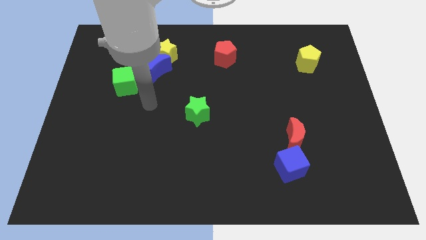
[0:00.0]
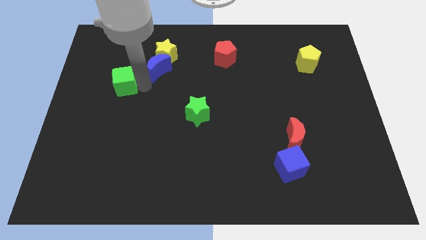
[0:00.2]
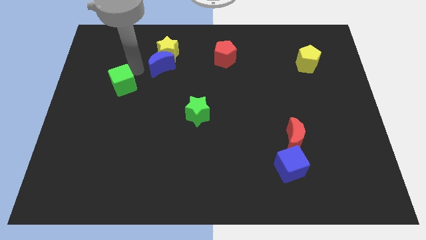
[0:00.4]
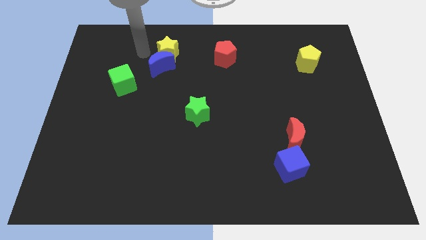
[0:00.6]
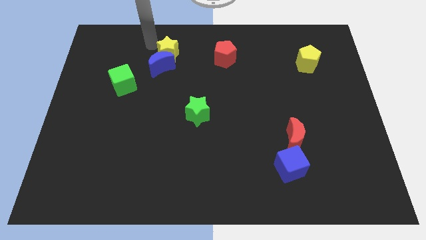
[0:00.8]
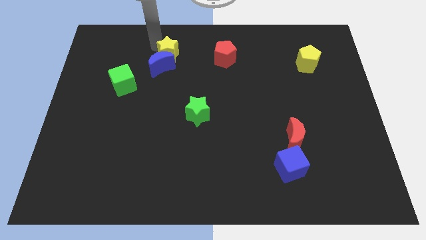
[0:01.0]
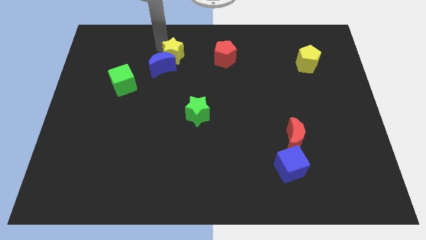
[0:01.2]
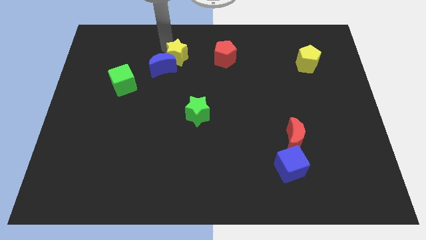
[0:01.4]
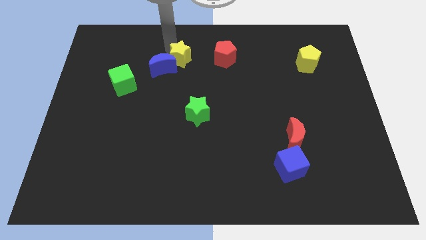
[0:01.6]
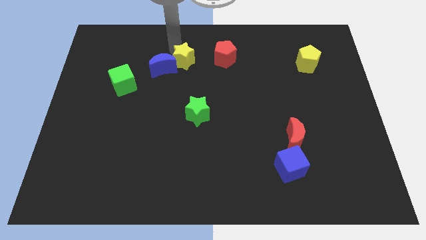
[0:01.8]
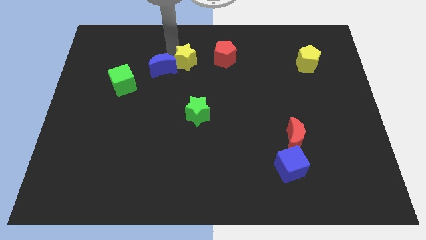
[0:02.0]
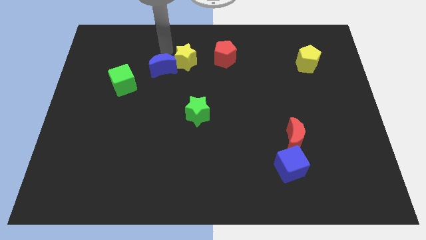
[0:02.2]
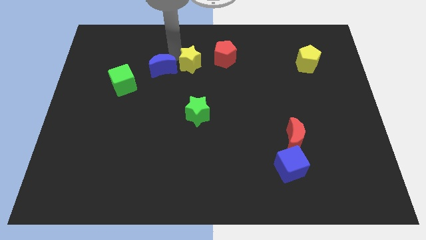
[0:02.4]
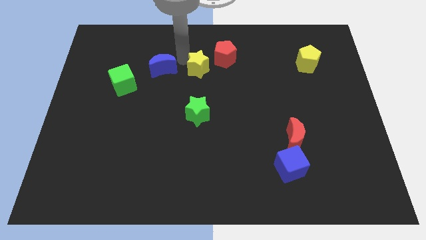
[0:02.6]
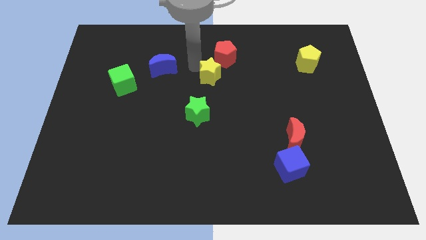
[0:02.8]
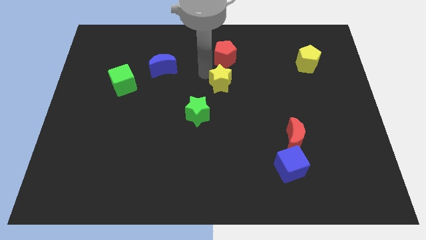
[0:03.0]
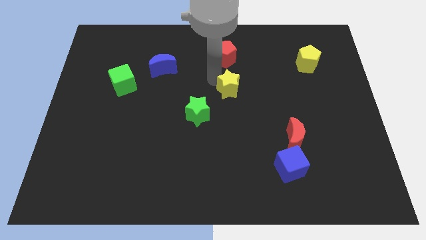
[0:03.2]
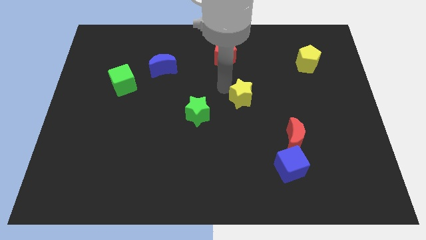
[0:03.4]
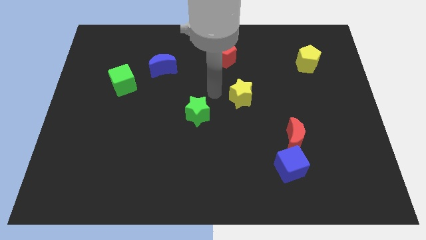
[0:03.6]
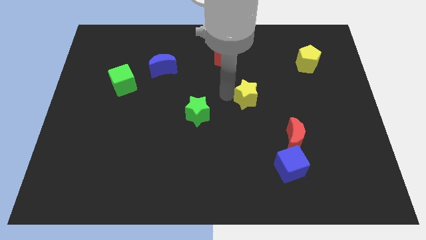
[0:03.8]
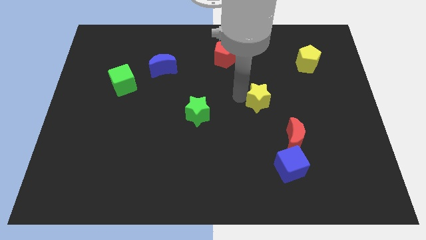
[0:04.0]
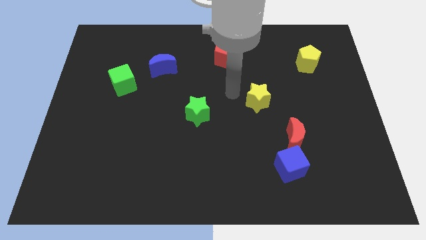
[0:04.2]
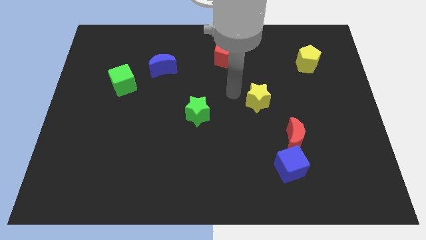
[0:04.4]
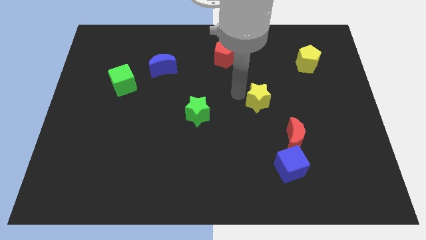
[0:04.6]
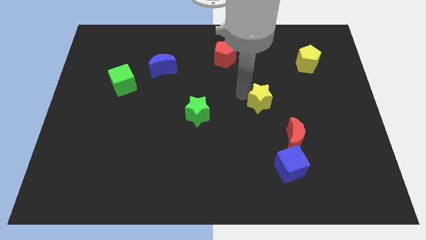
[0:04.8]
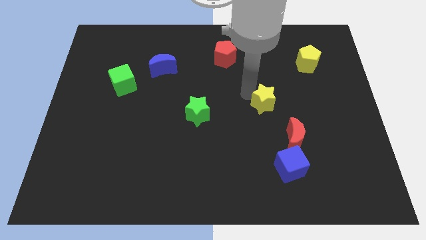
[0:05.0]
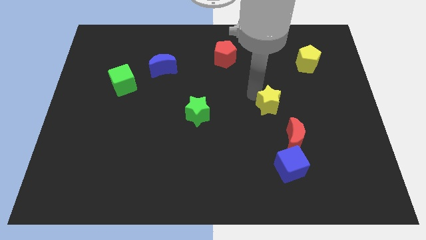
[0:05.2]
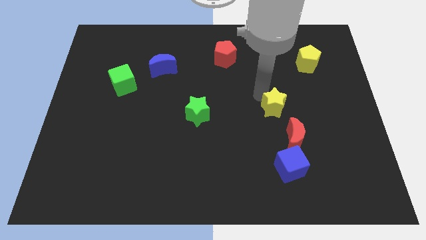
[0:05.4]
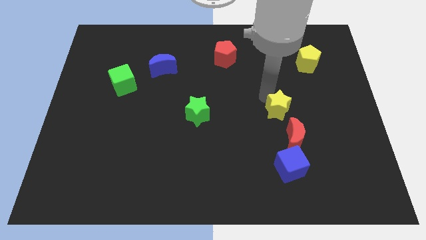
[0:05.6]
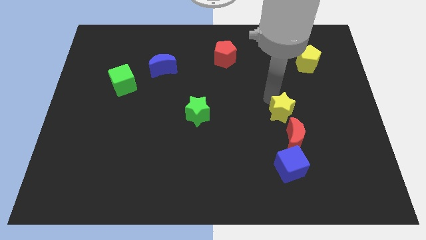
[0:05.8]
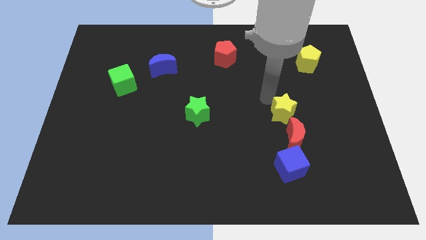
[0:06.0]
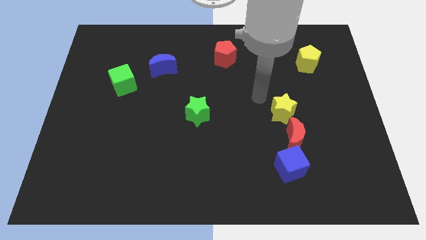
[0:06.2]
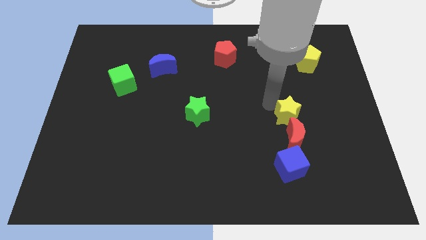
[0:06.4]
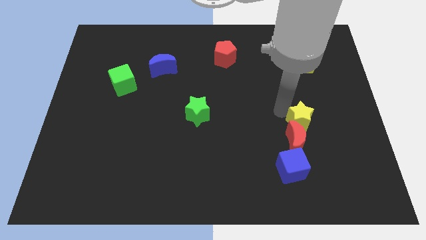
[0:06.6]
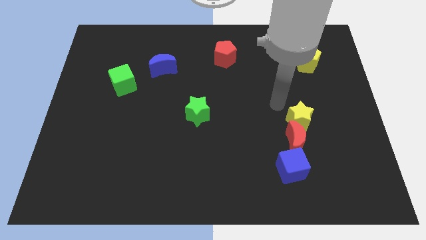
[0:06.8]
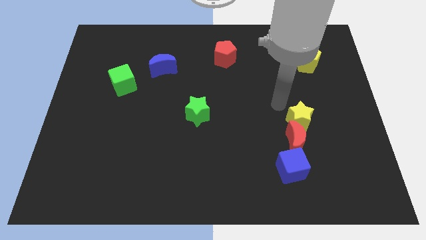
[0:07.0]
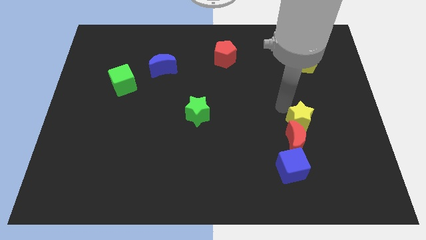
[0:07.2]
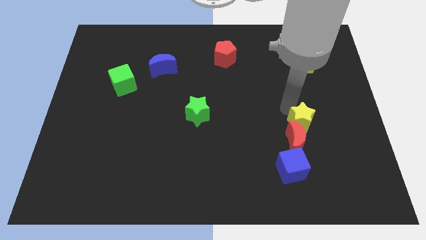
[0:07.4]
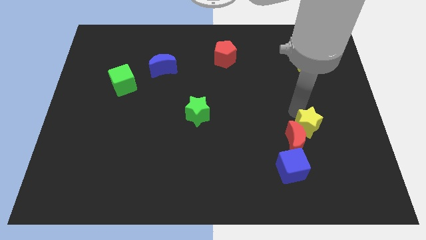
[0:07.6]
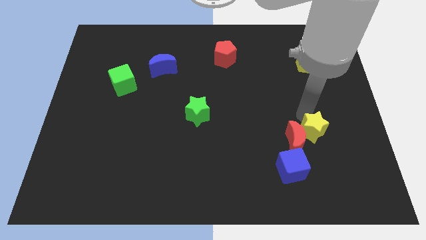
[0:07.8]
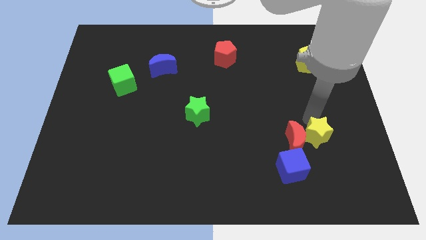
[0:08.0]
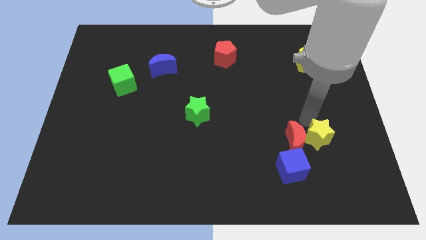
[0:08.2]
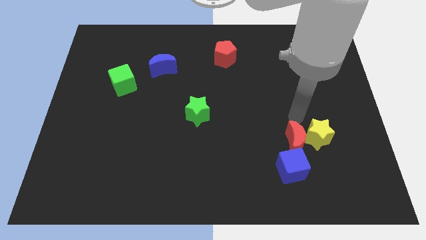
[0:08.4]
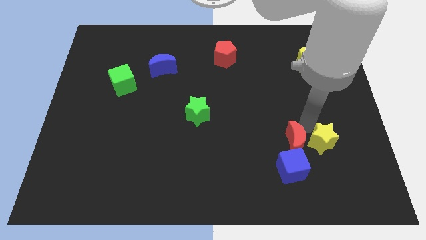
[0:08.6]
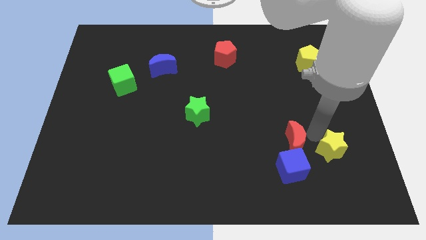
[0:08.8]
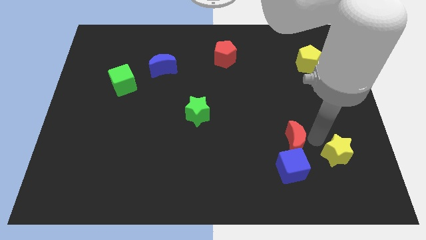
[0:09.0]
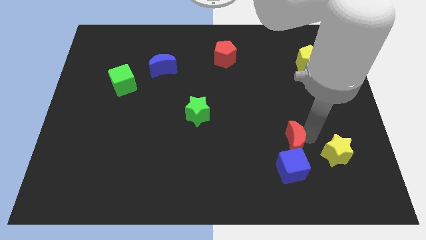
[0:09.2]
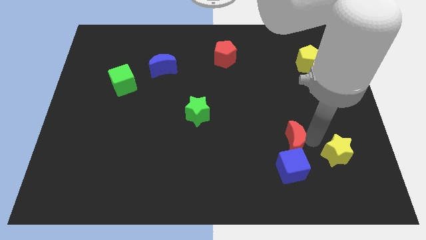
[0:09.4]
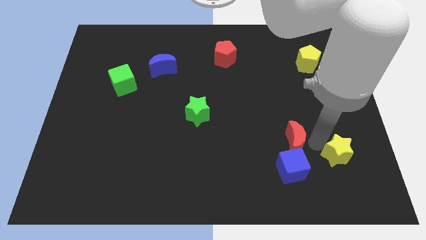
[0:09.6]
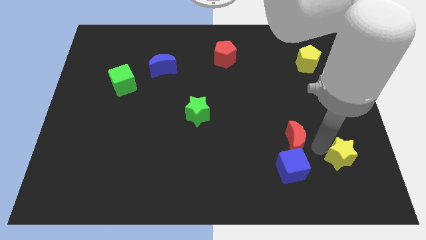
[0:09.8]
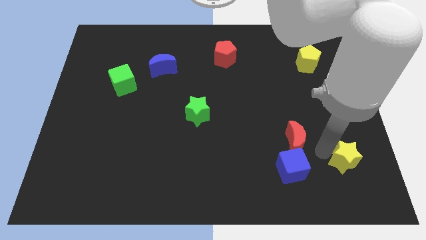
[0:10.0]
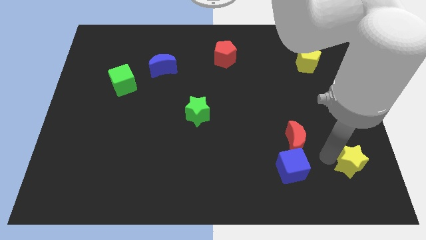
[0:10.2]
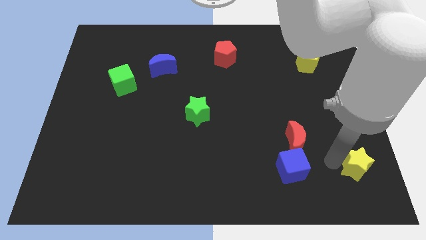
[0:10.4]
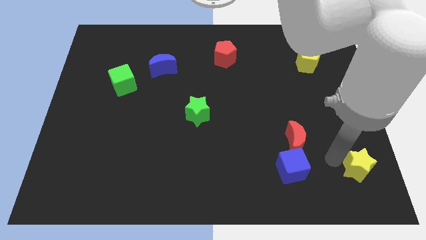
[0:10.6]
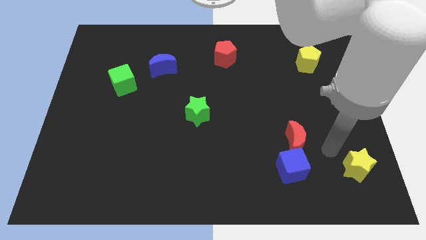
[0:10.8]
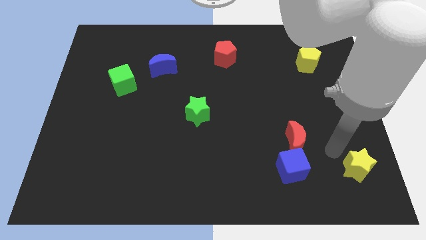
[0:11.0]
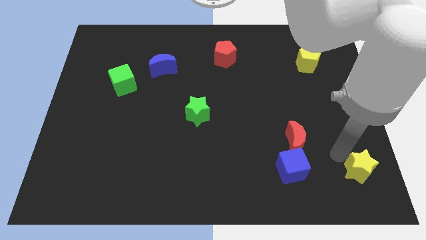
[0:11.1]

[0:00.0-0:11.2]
slide the yellow star to the bottom right of the board

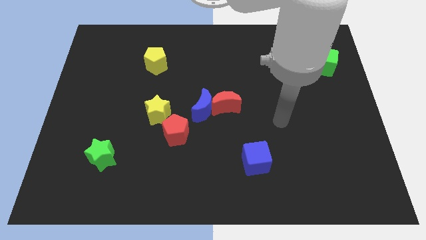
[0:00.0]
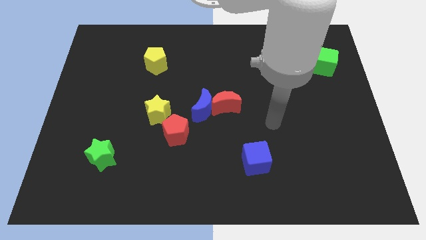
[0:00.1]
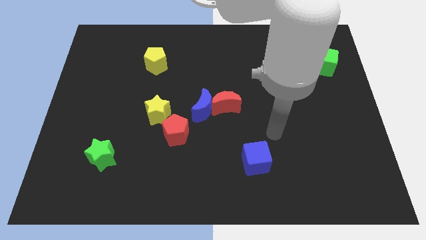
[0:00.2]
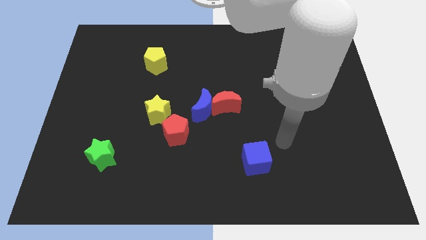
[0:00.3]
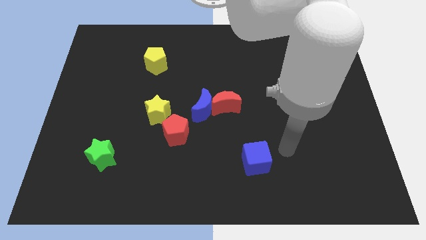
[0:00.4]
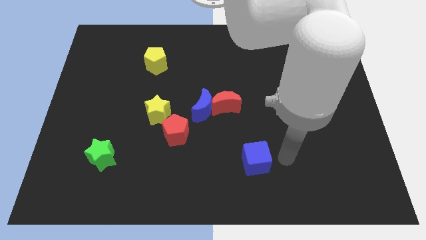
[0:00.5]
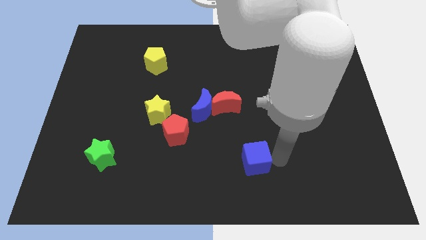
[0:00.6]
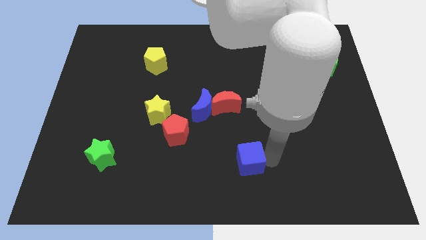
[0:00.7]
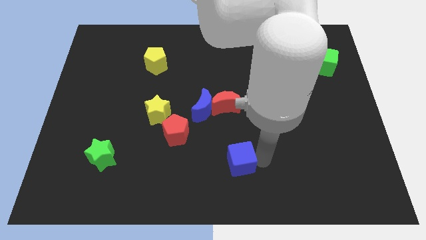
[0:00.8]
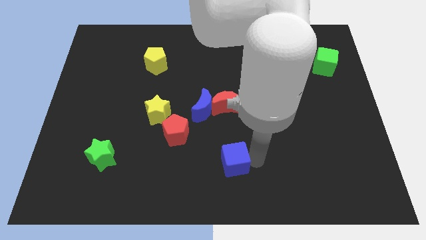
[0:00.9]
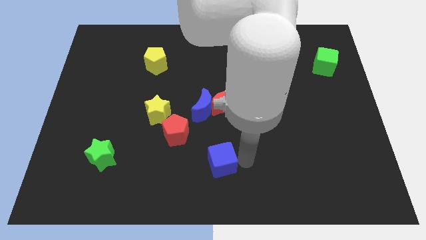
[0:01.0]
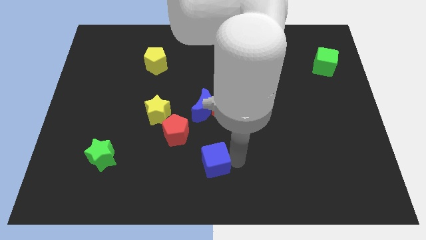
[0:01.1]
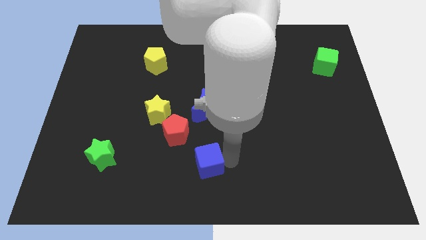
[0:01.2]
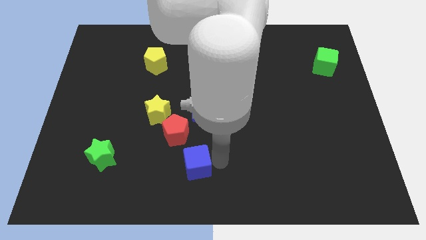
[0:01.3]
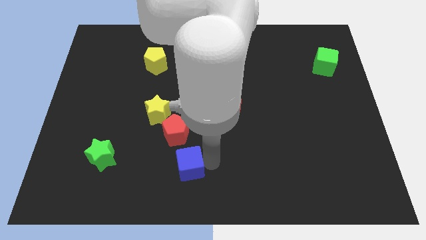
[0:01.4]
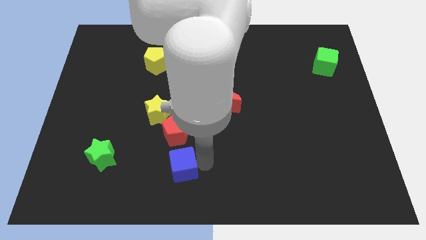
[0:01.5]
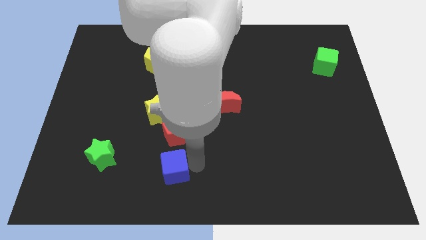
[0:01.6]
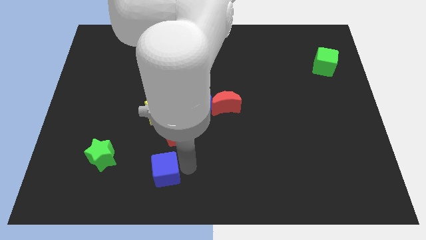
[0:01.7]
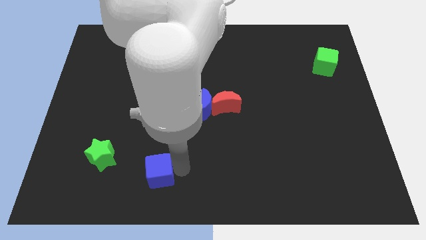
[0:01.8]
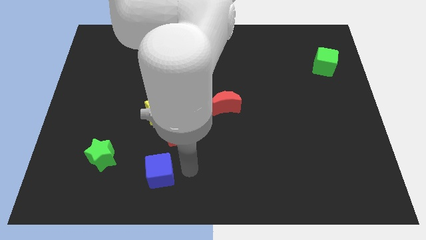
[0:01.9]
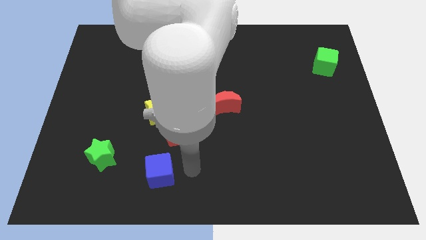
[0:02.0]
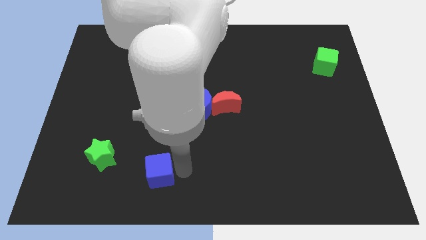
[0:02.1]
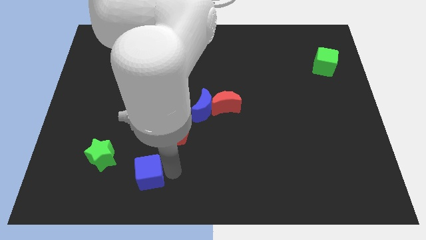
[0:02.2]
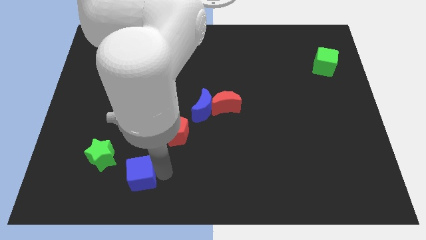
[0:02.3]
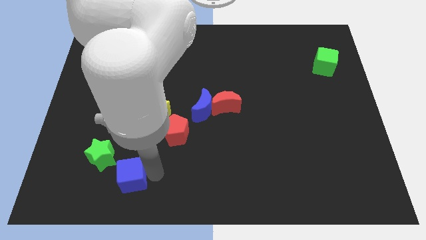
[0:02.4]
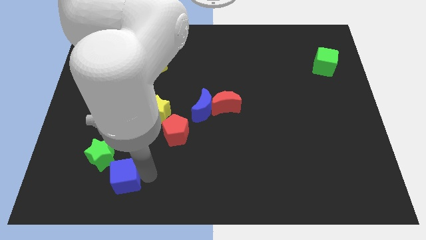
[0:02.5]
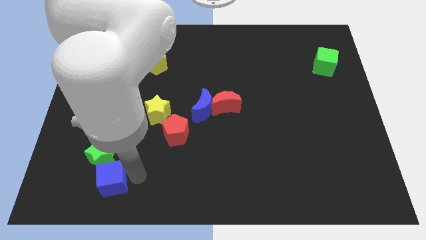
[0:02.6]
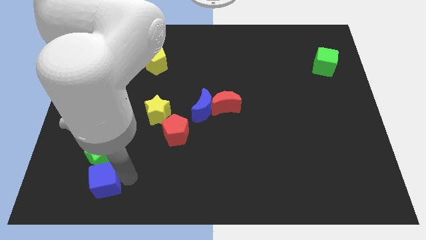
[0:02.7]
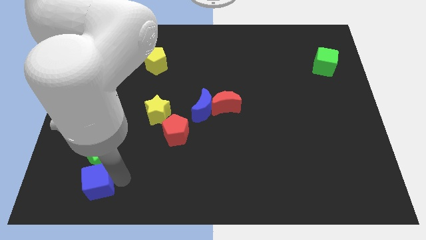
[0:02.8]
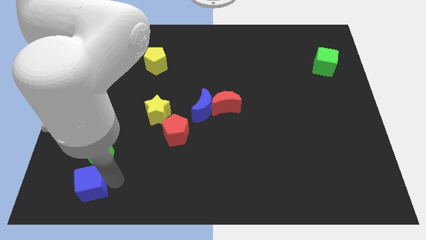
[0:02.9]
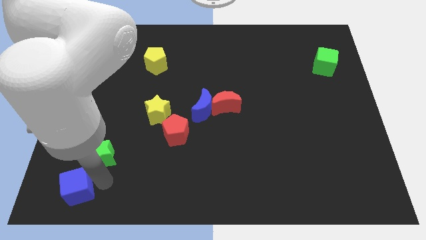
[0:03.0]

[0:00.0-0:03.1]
slide the blue cube to the bottom left
